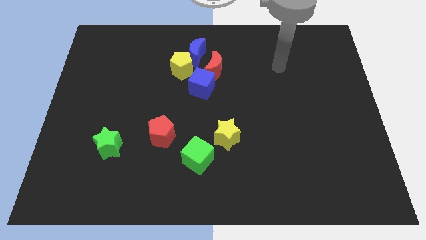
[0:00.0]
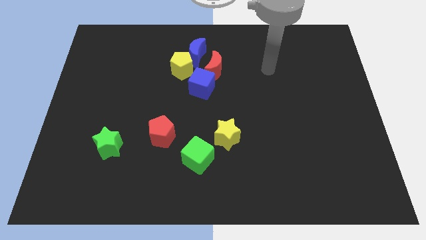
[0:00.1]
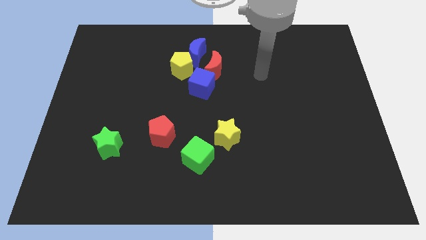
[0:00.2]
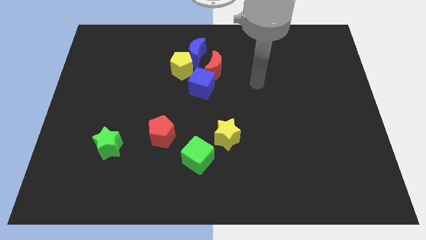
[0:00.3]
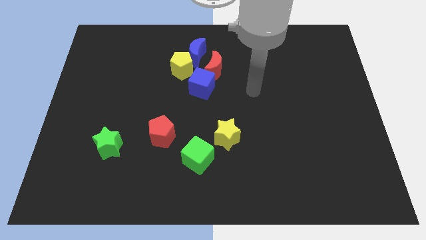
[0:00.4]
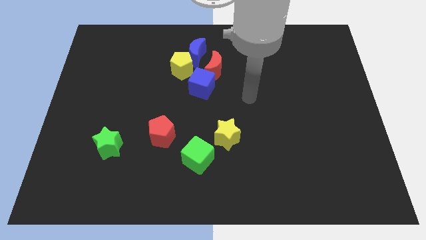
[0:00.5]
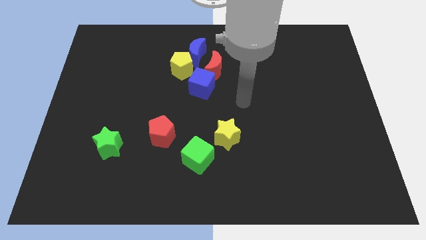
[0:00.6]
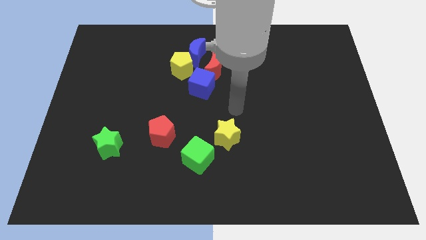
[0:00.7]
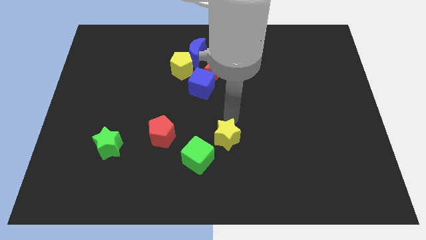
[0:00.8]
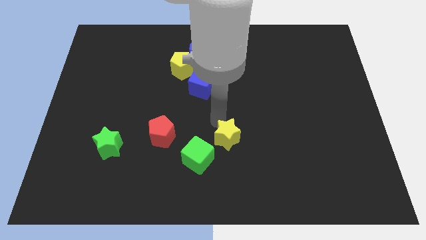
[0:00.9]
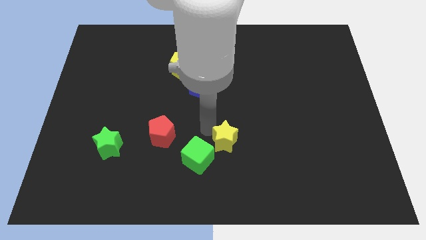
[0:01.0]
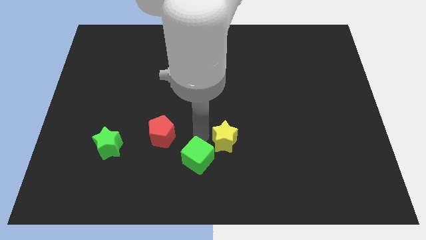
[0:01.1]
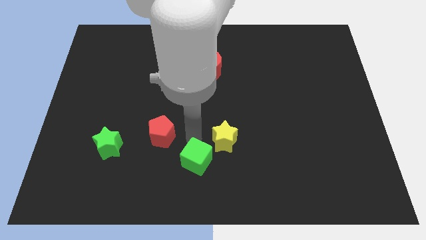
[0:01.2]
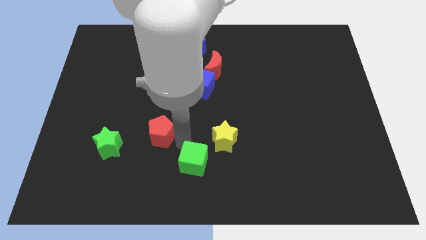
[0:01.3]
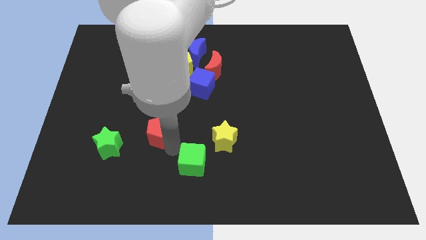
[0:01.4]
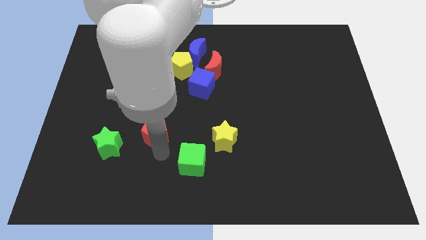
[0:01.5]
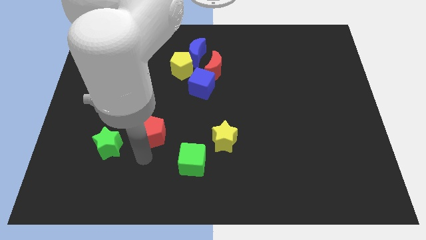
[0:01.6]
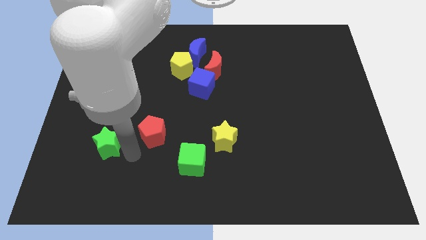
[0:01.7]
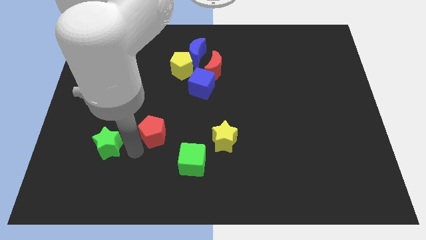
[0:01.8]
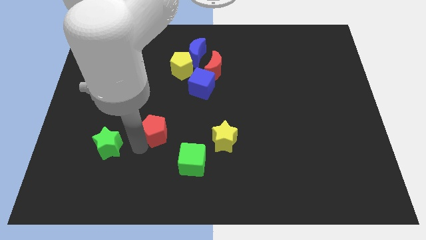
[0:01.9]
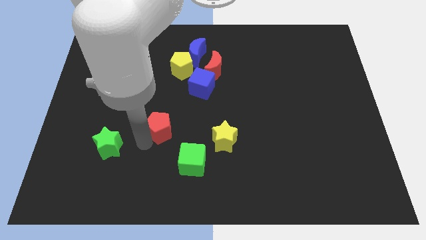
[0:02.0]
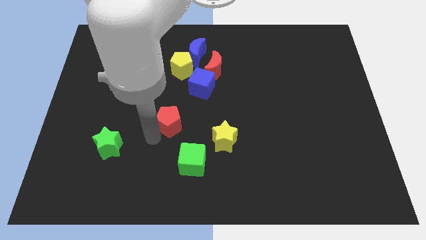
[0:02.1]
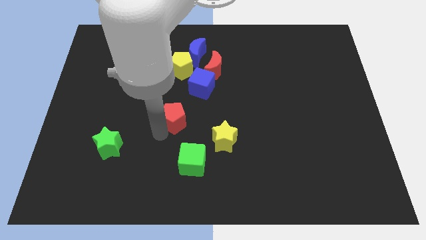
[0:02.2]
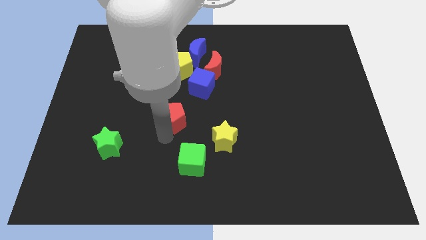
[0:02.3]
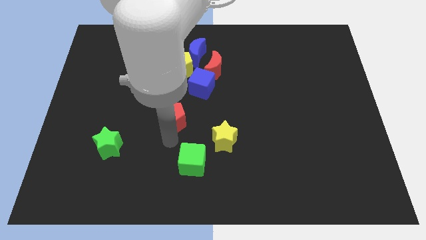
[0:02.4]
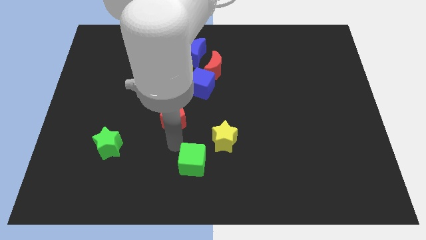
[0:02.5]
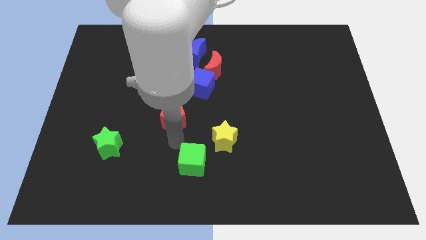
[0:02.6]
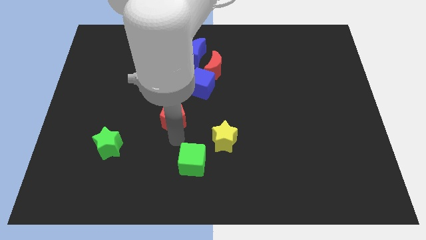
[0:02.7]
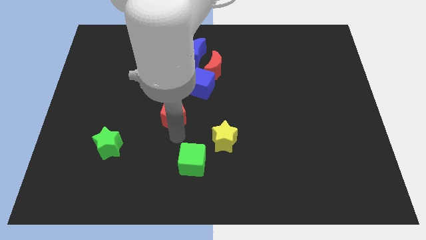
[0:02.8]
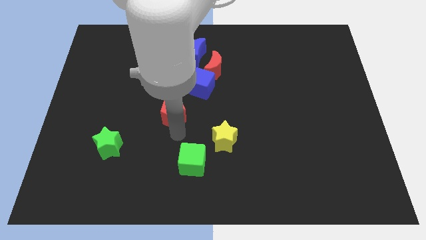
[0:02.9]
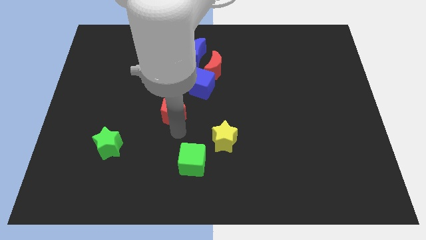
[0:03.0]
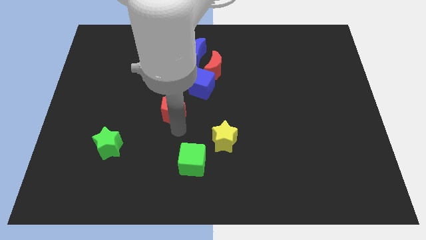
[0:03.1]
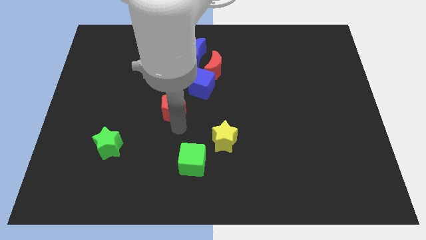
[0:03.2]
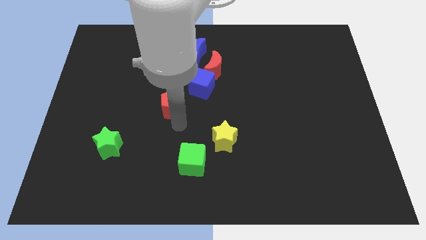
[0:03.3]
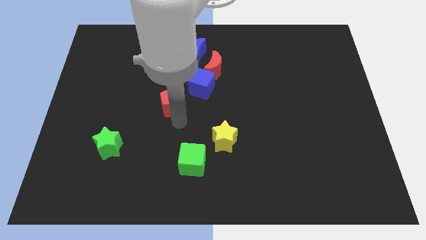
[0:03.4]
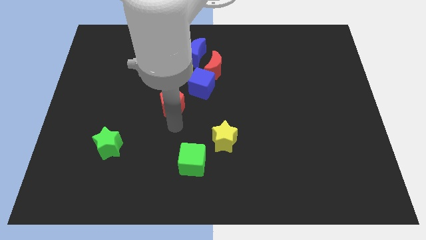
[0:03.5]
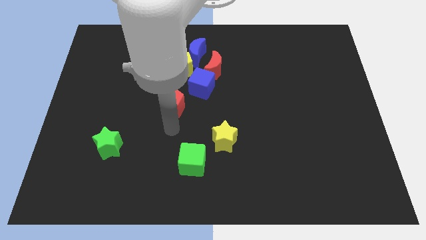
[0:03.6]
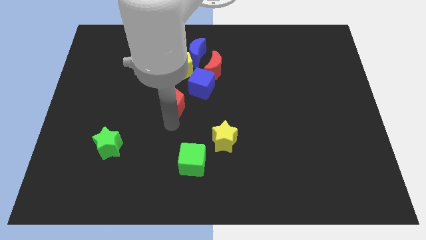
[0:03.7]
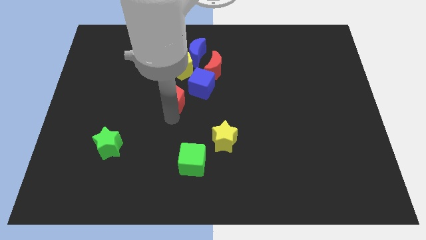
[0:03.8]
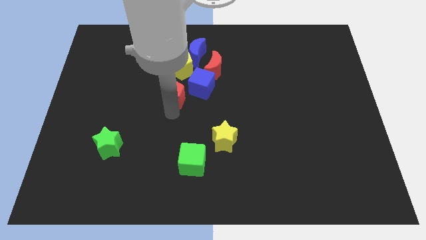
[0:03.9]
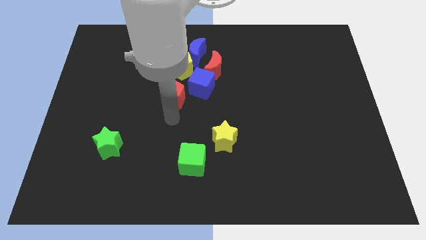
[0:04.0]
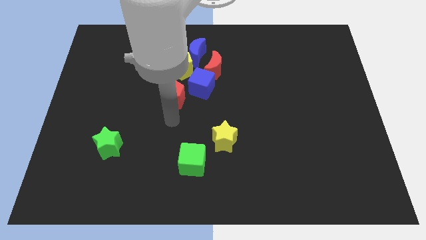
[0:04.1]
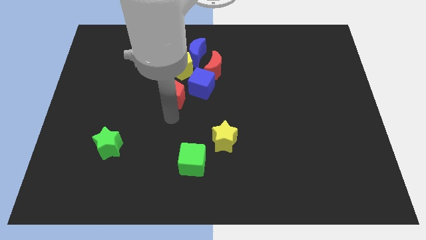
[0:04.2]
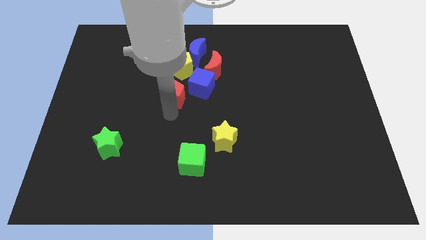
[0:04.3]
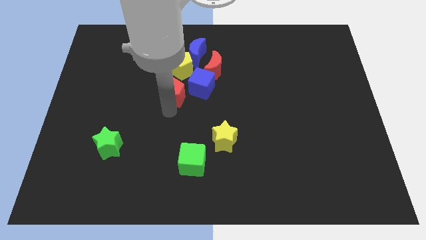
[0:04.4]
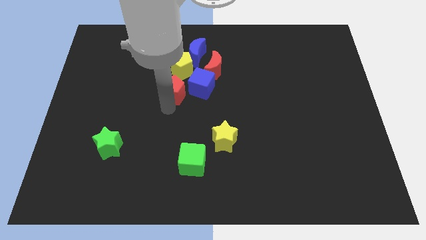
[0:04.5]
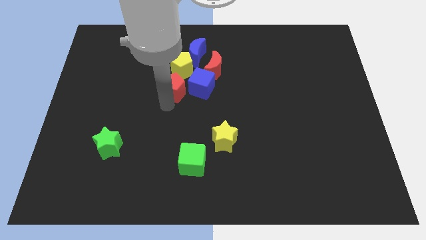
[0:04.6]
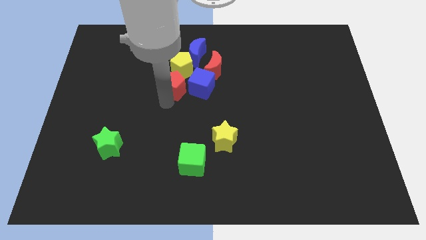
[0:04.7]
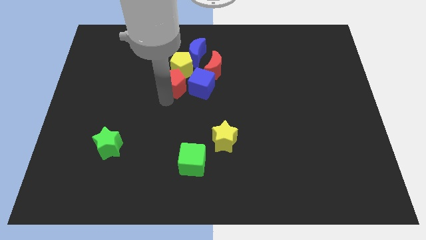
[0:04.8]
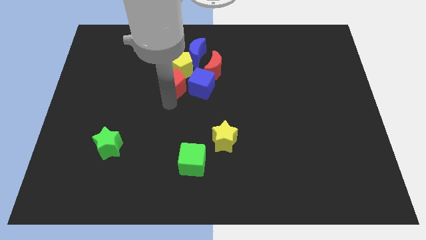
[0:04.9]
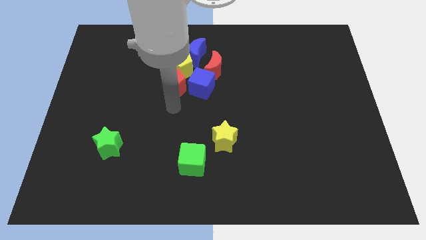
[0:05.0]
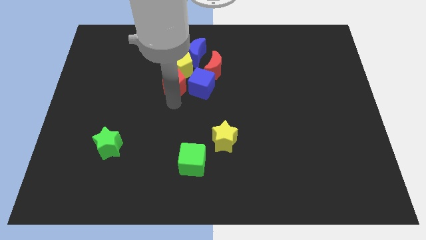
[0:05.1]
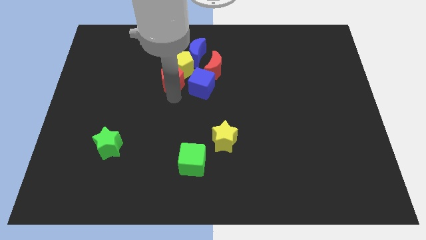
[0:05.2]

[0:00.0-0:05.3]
slide the red pentagon left of the red moon

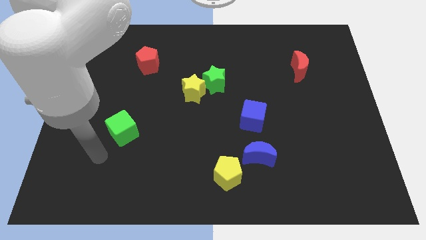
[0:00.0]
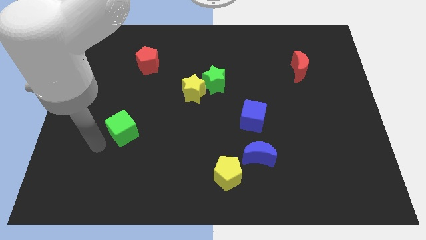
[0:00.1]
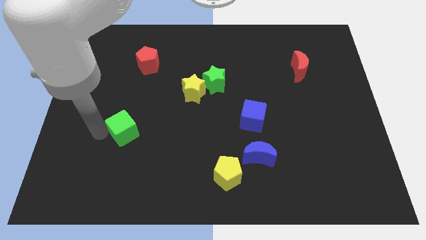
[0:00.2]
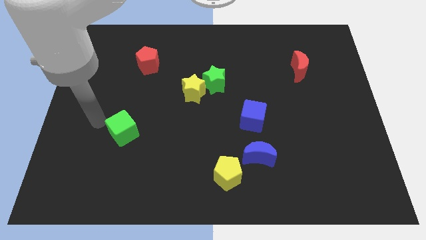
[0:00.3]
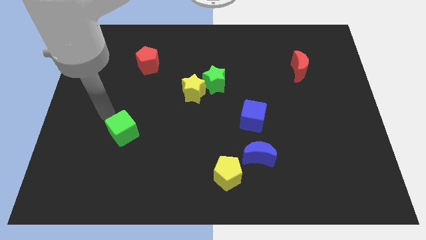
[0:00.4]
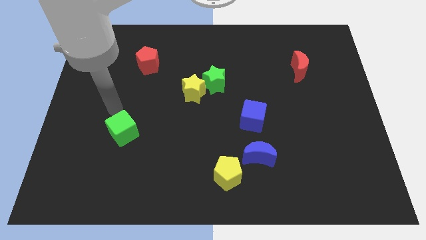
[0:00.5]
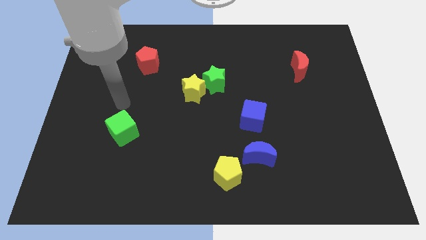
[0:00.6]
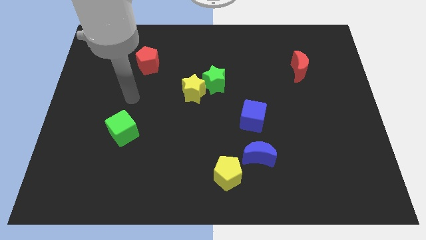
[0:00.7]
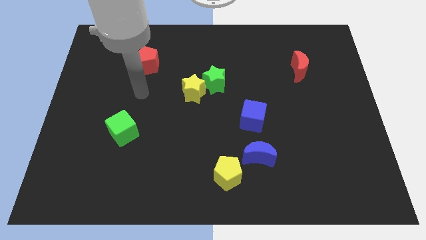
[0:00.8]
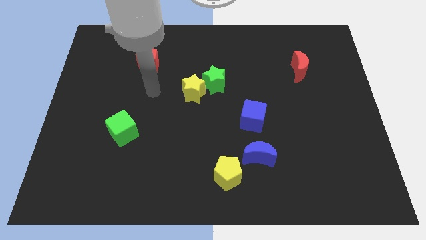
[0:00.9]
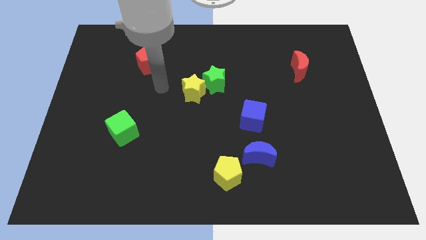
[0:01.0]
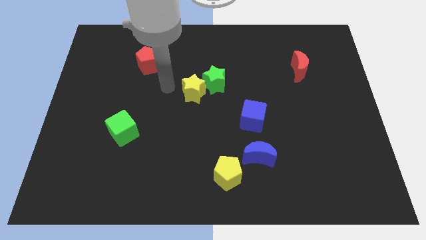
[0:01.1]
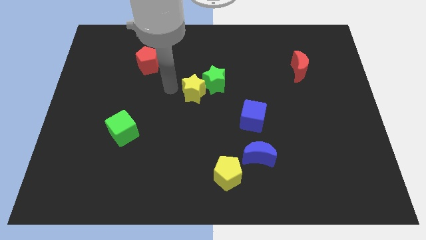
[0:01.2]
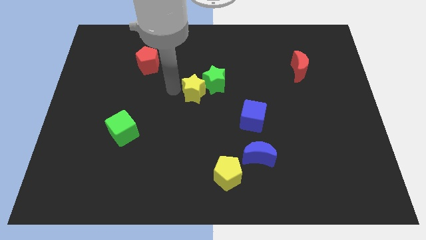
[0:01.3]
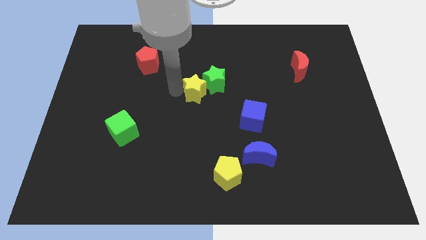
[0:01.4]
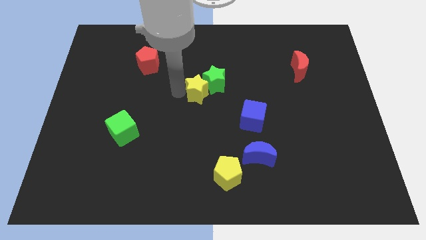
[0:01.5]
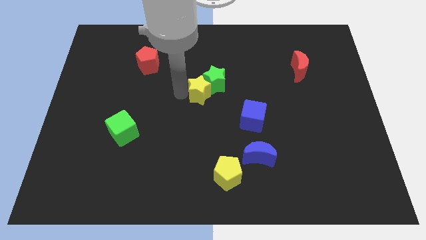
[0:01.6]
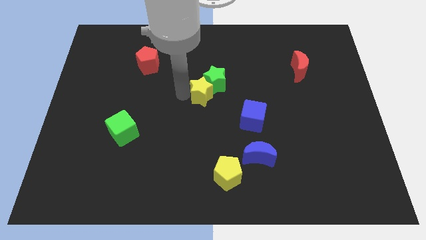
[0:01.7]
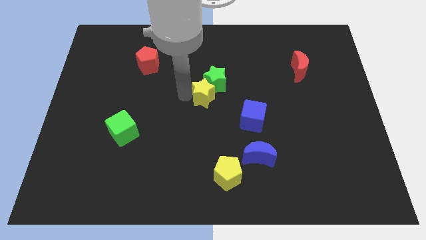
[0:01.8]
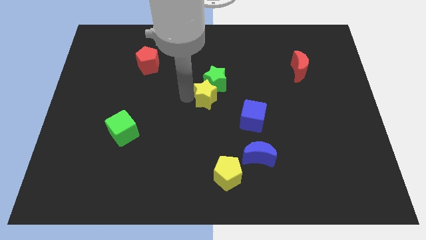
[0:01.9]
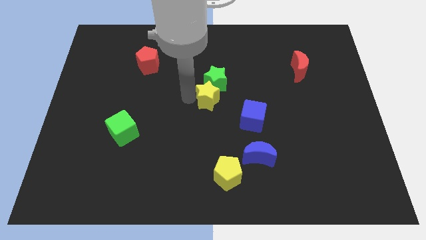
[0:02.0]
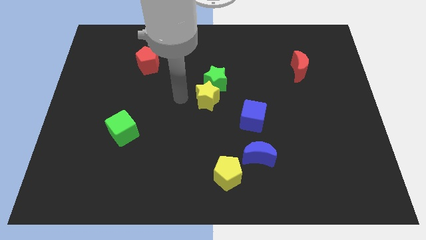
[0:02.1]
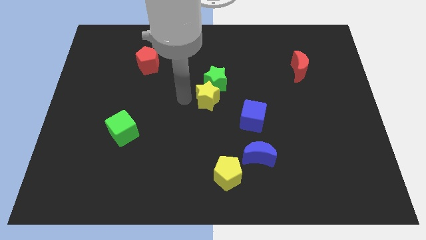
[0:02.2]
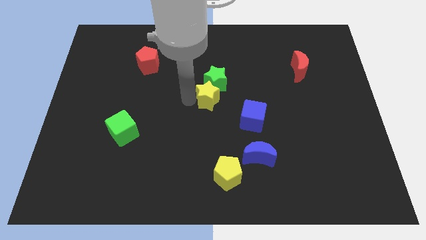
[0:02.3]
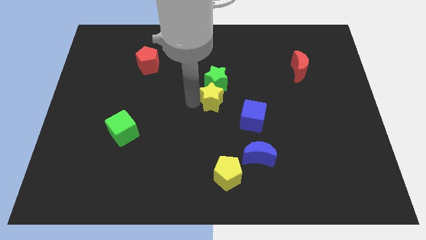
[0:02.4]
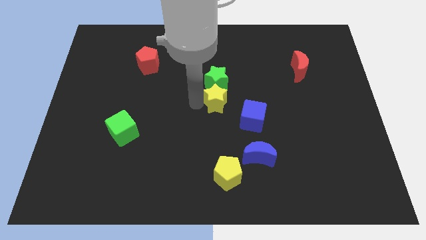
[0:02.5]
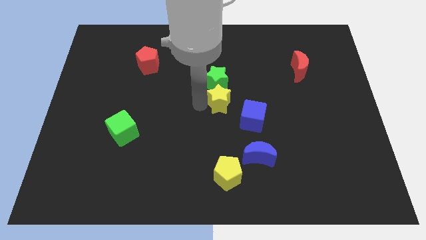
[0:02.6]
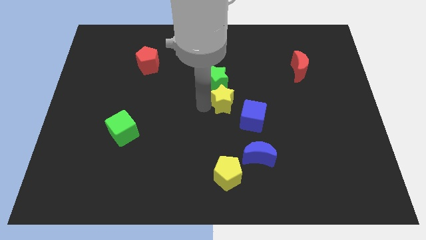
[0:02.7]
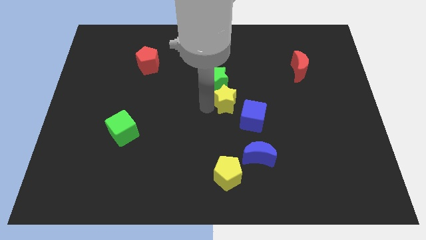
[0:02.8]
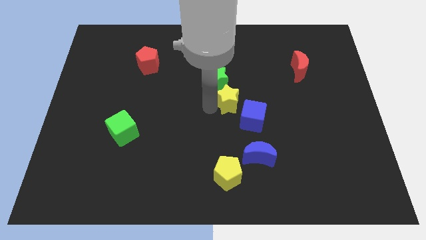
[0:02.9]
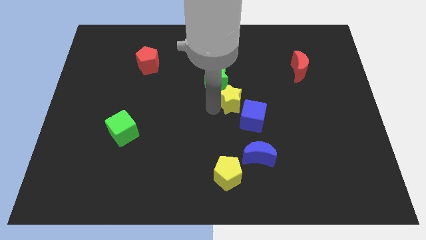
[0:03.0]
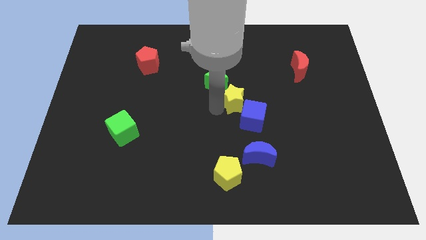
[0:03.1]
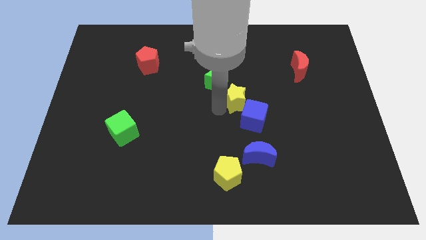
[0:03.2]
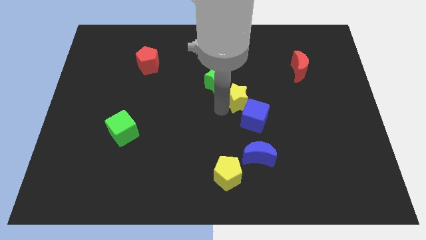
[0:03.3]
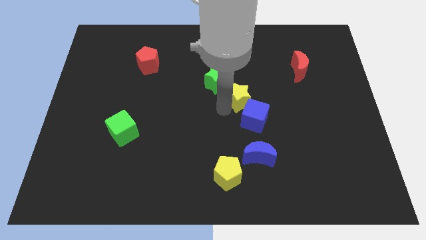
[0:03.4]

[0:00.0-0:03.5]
move the yellow star above the blue moon
